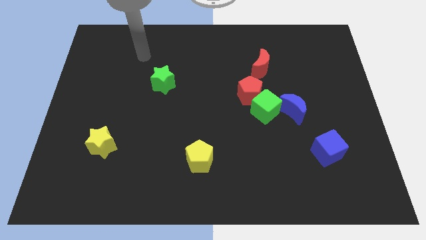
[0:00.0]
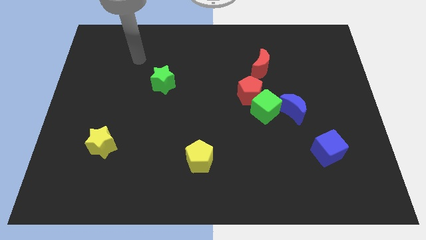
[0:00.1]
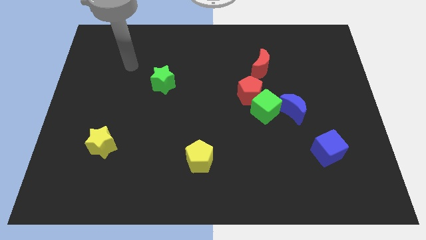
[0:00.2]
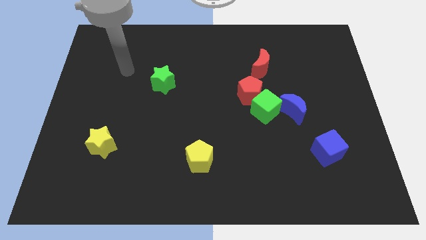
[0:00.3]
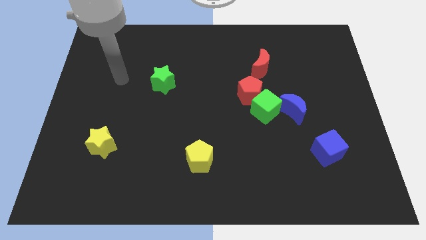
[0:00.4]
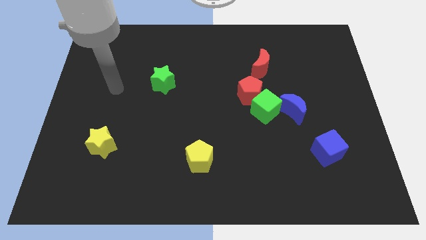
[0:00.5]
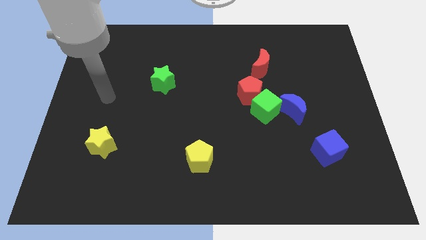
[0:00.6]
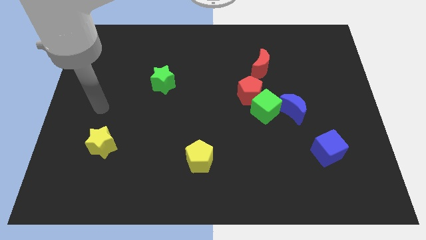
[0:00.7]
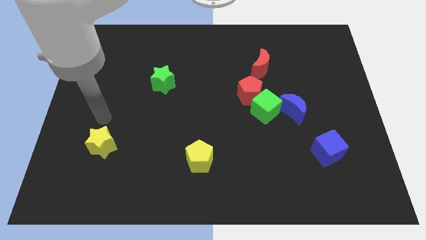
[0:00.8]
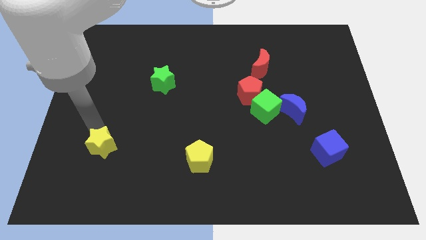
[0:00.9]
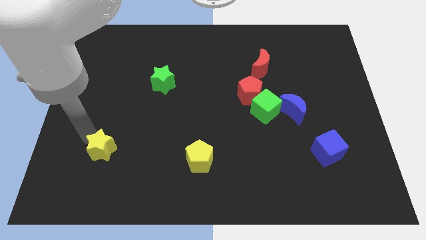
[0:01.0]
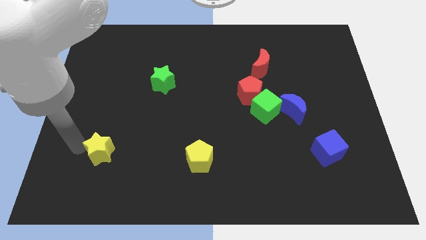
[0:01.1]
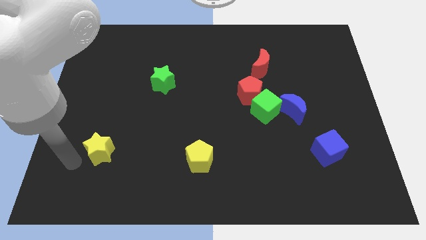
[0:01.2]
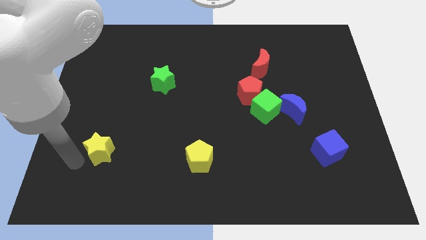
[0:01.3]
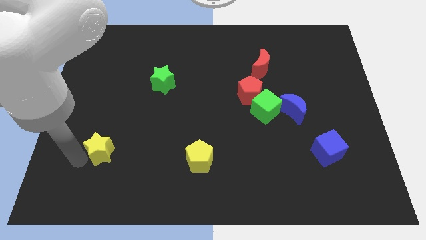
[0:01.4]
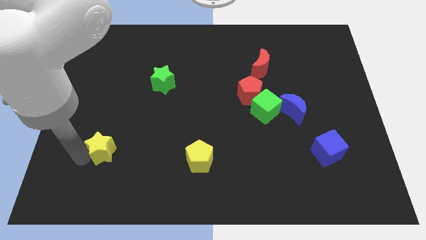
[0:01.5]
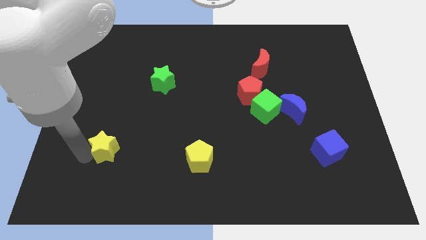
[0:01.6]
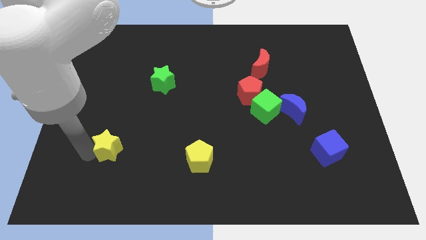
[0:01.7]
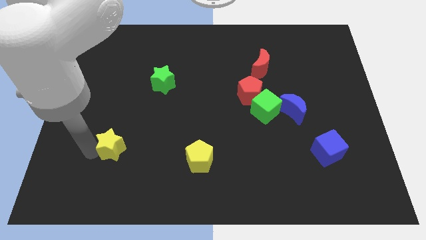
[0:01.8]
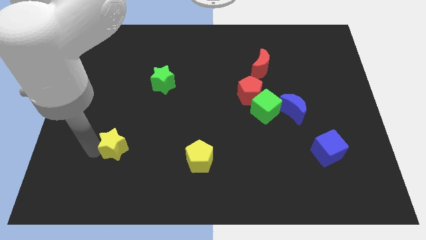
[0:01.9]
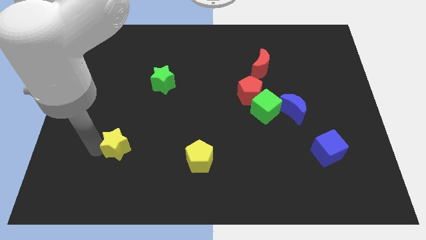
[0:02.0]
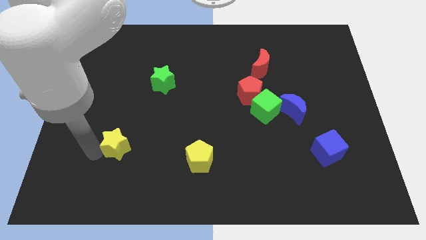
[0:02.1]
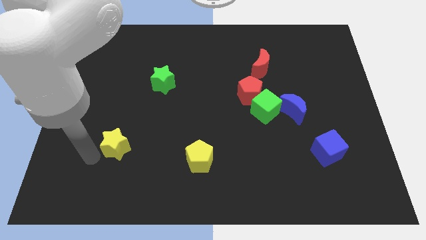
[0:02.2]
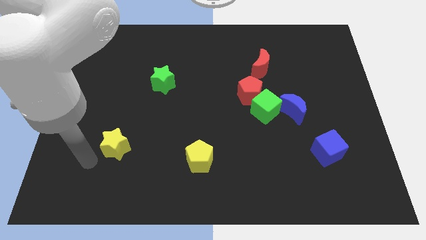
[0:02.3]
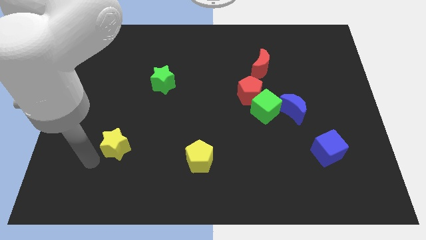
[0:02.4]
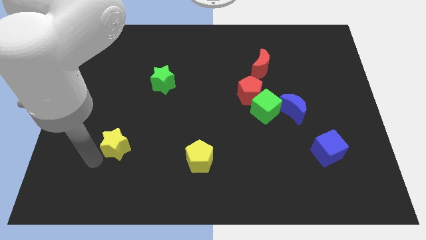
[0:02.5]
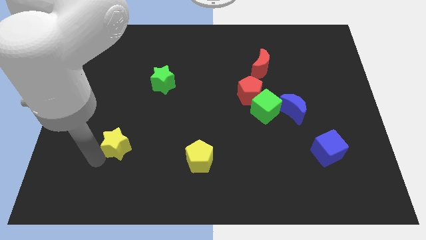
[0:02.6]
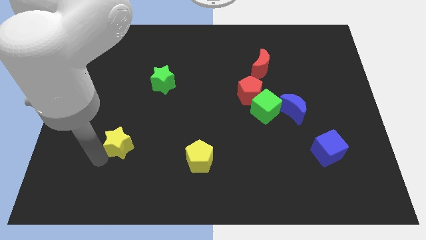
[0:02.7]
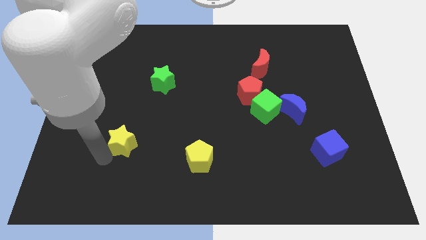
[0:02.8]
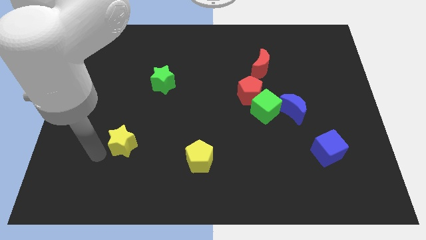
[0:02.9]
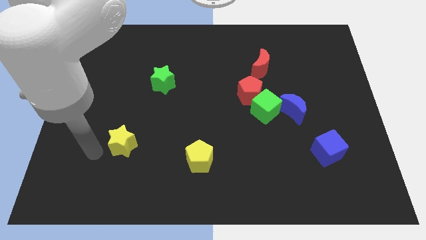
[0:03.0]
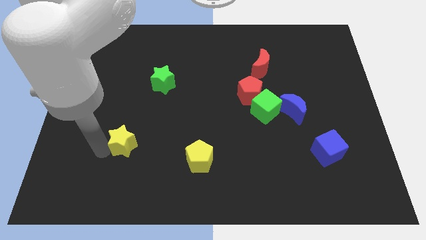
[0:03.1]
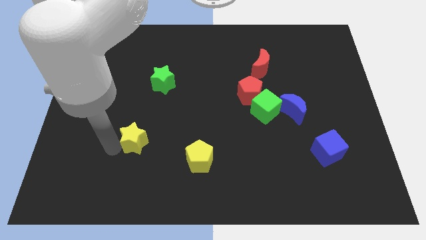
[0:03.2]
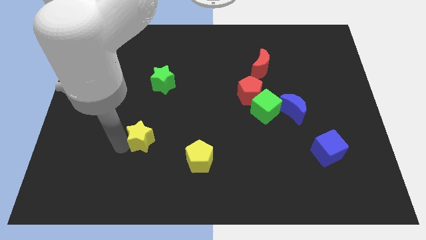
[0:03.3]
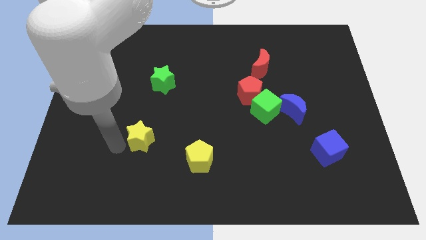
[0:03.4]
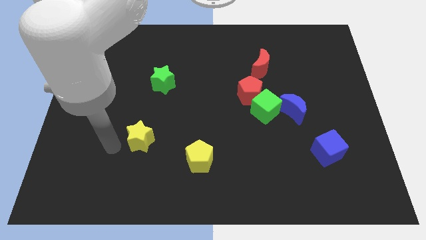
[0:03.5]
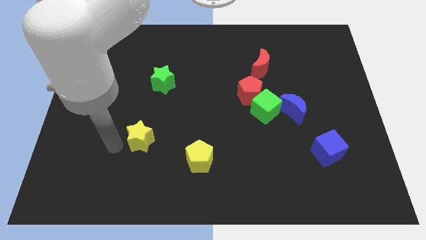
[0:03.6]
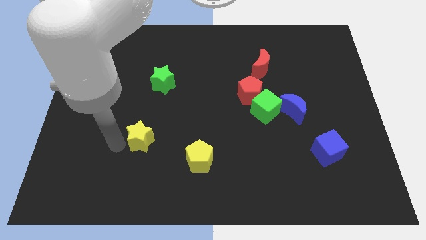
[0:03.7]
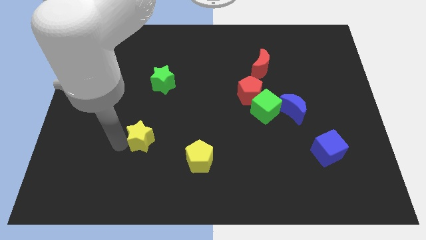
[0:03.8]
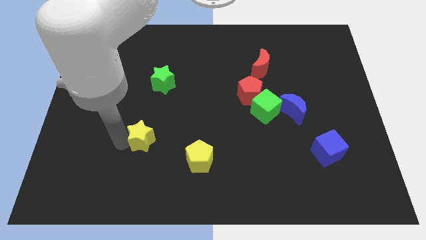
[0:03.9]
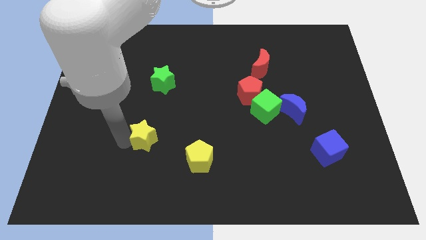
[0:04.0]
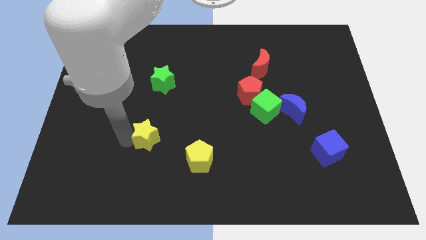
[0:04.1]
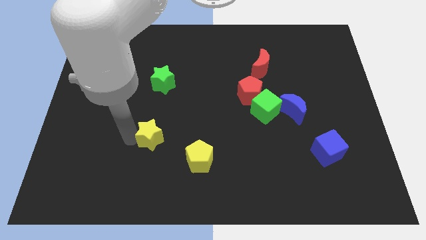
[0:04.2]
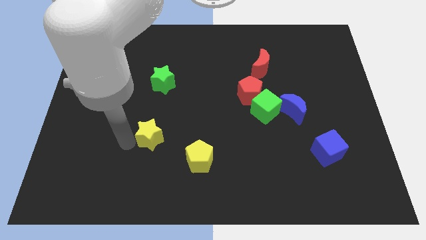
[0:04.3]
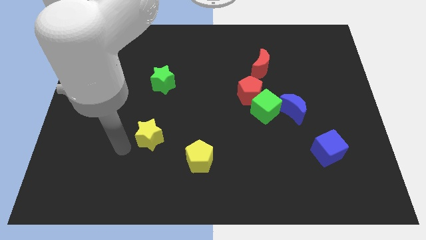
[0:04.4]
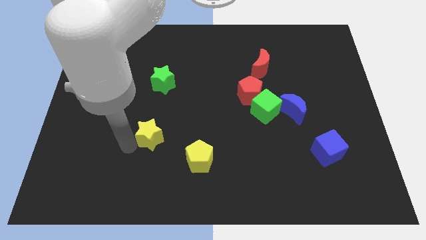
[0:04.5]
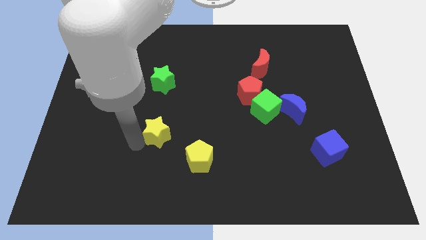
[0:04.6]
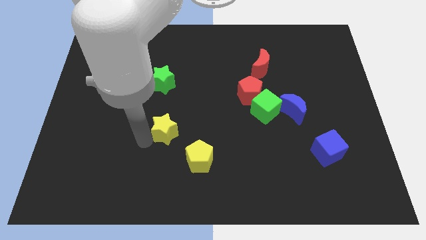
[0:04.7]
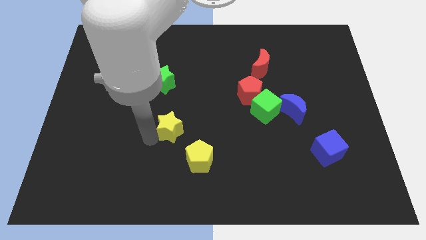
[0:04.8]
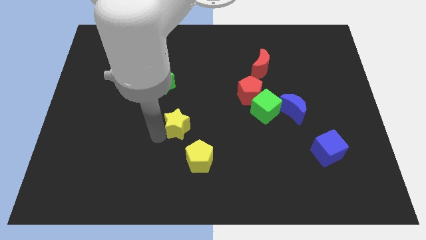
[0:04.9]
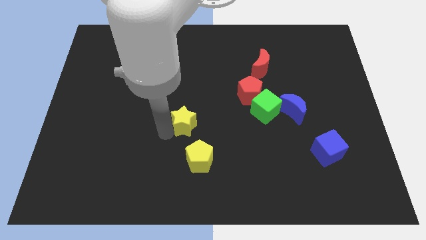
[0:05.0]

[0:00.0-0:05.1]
move the yellow star to the top side of the yellow pentagon

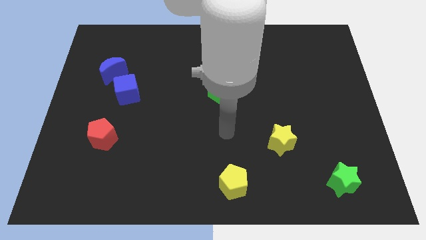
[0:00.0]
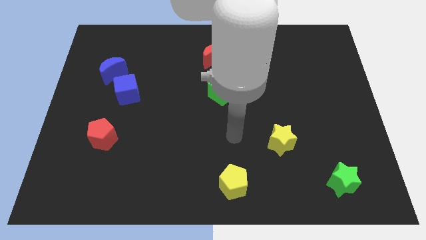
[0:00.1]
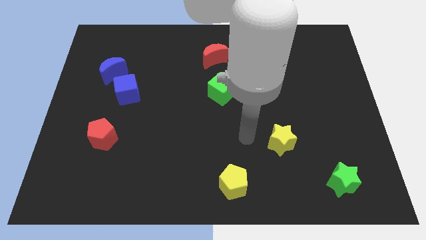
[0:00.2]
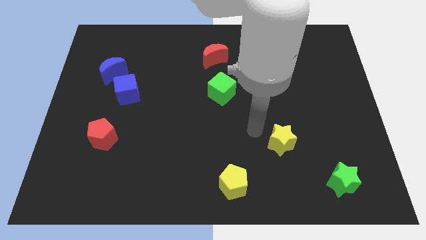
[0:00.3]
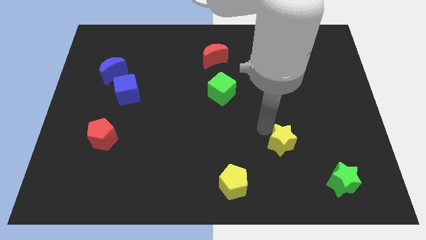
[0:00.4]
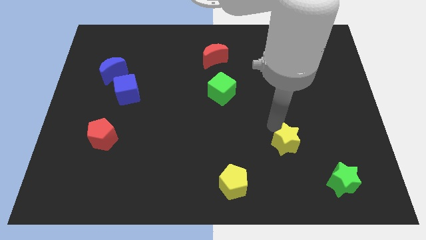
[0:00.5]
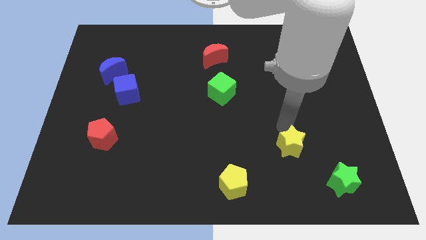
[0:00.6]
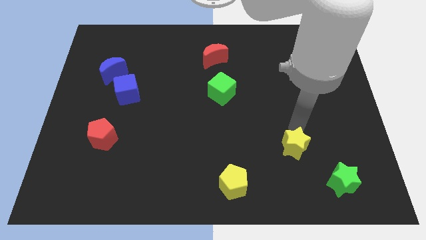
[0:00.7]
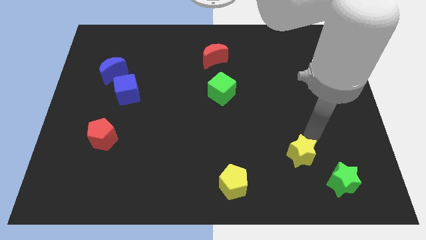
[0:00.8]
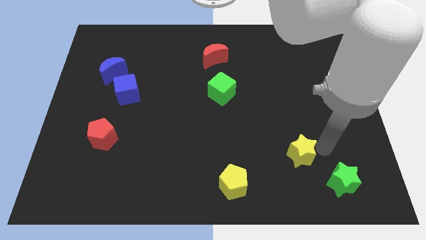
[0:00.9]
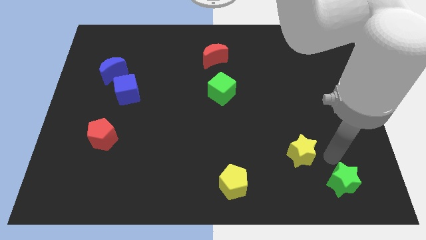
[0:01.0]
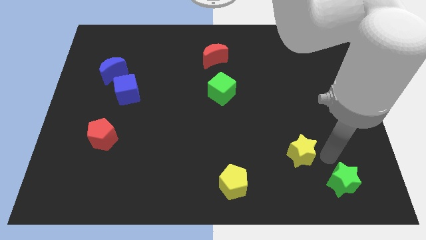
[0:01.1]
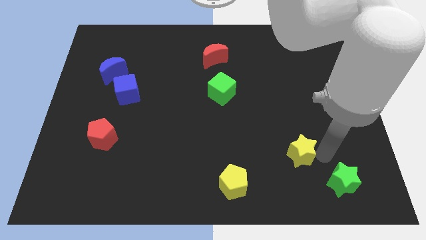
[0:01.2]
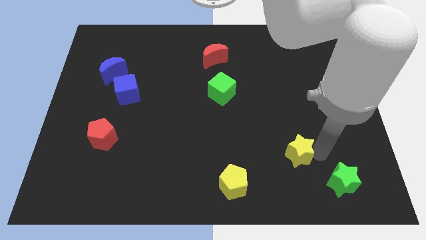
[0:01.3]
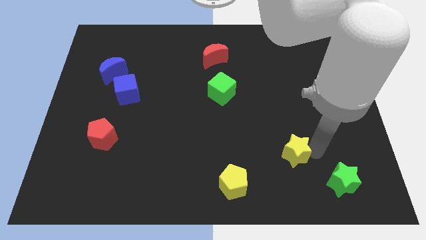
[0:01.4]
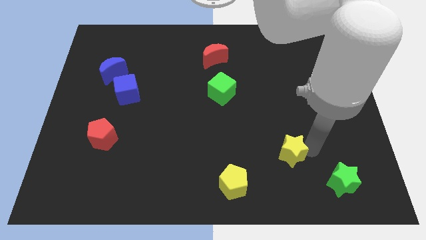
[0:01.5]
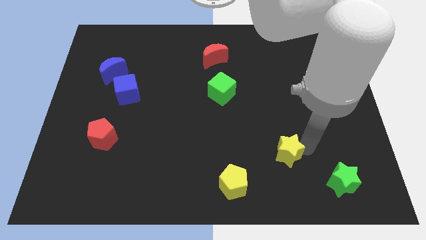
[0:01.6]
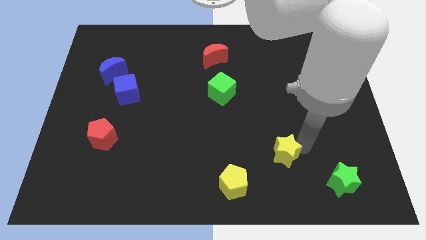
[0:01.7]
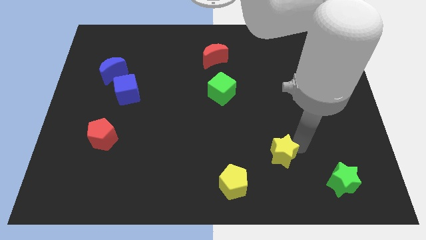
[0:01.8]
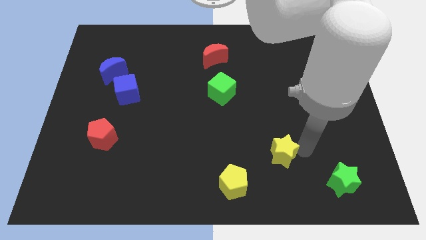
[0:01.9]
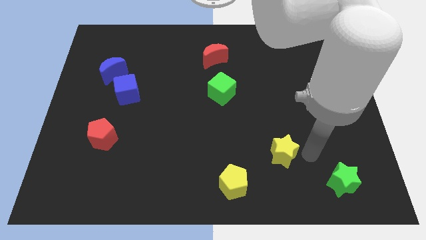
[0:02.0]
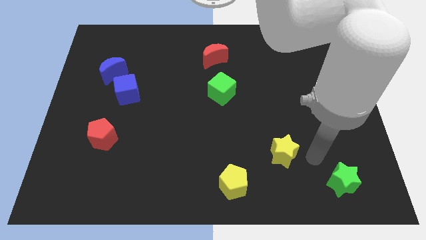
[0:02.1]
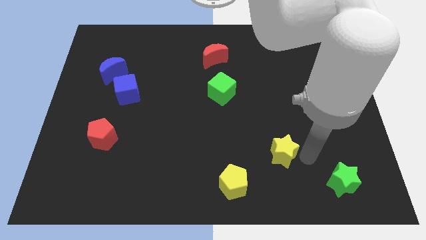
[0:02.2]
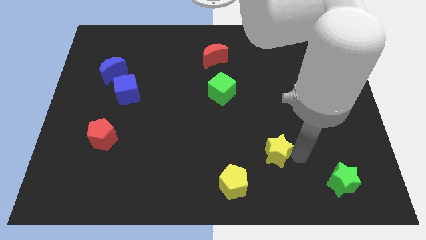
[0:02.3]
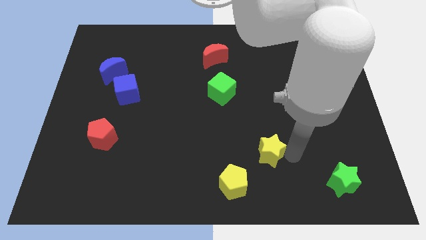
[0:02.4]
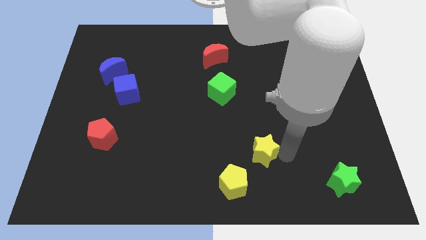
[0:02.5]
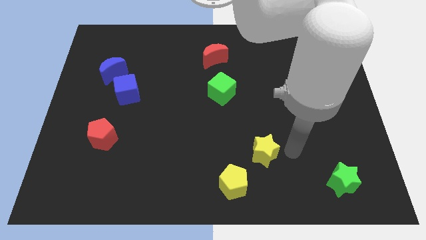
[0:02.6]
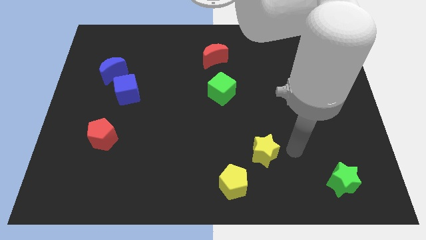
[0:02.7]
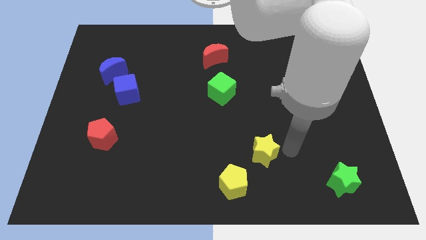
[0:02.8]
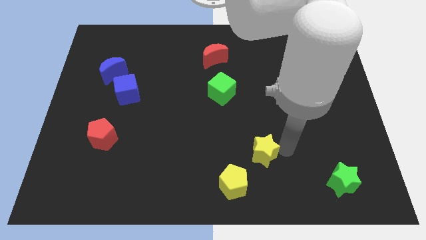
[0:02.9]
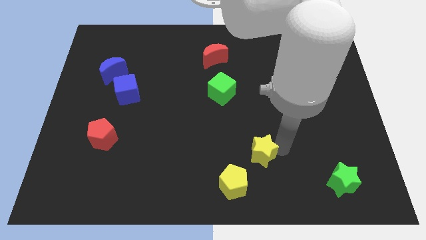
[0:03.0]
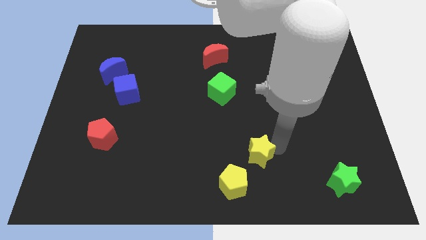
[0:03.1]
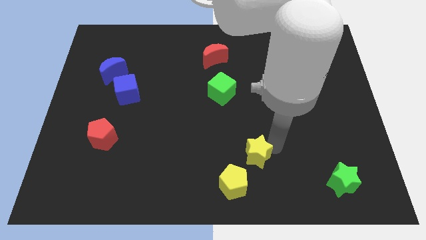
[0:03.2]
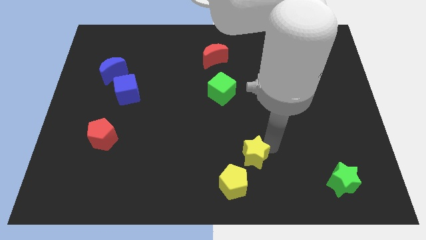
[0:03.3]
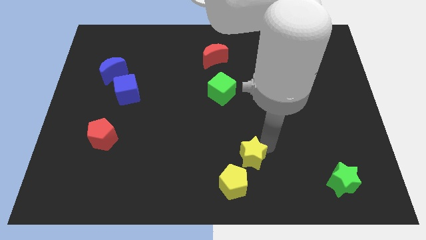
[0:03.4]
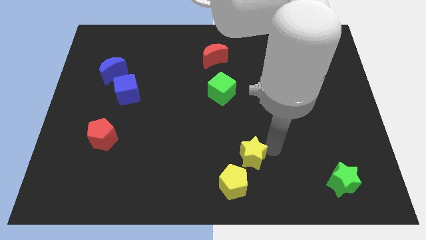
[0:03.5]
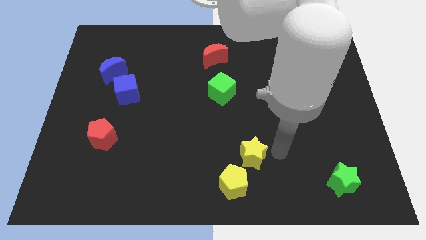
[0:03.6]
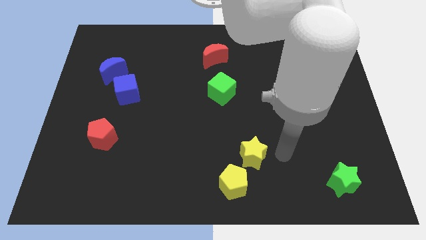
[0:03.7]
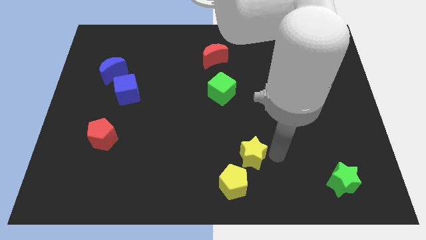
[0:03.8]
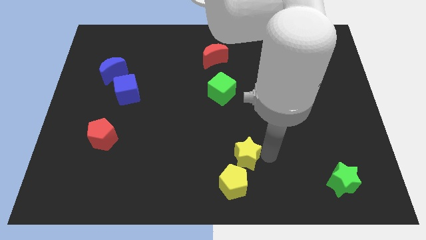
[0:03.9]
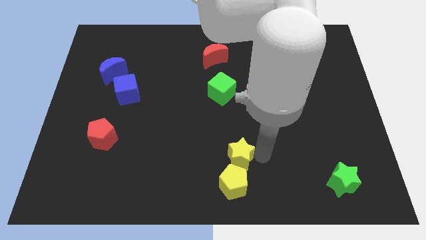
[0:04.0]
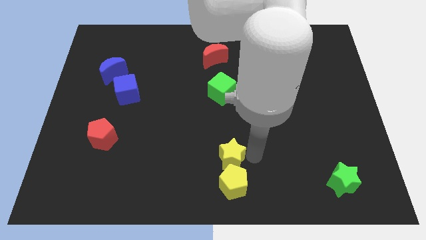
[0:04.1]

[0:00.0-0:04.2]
push the yellow star to the top left of the yellow pentagon
